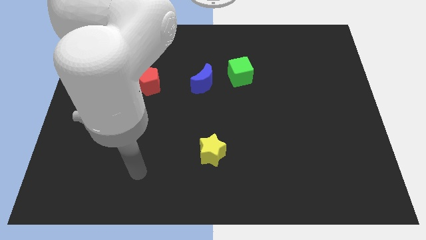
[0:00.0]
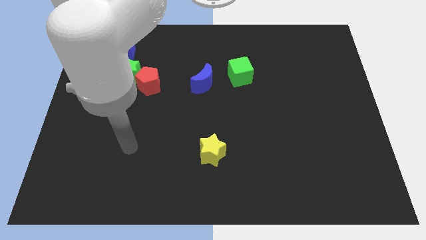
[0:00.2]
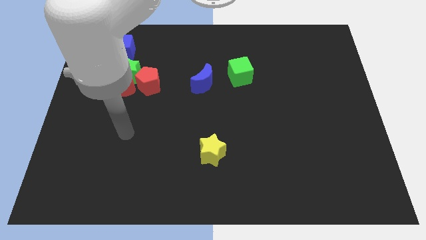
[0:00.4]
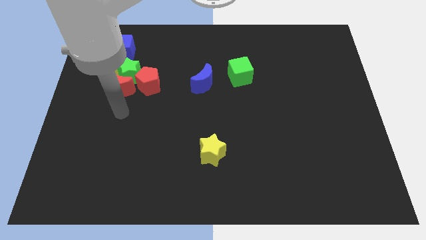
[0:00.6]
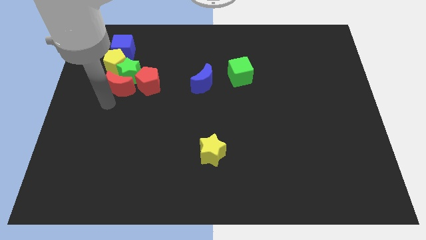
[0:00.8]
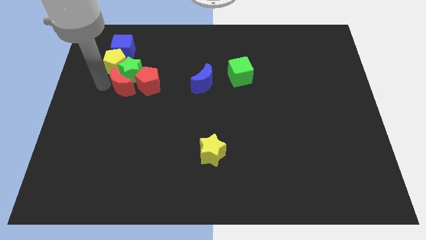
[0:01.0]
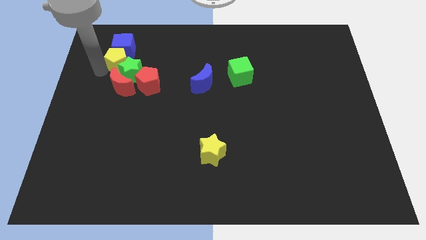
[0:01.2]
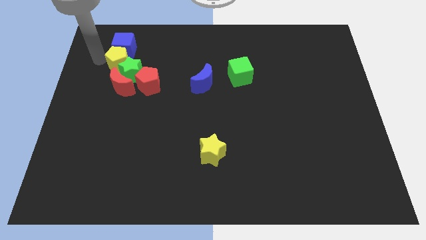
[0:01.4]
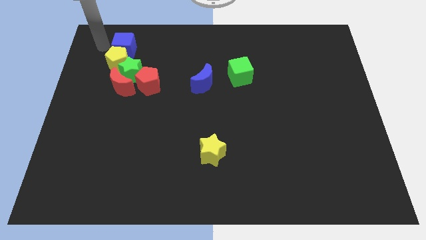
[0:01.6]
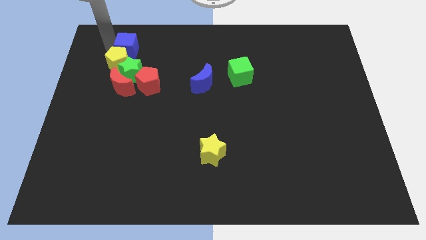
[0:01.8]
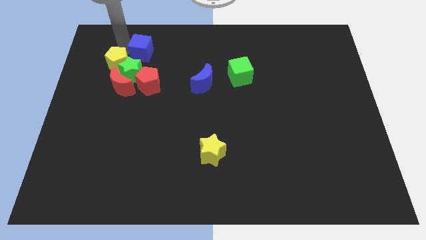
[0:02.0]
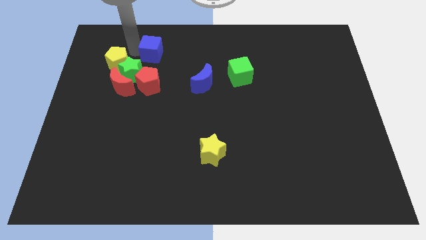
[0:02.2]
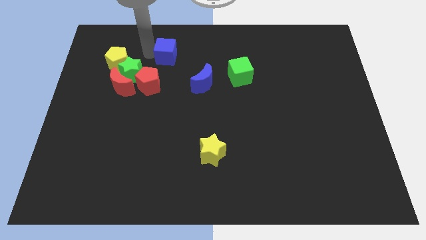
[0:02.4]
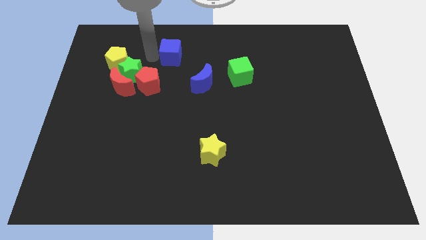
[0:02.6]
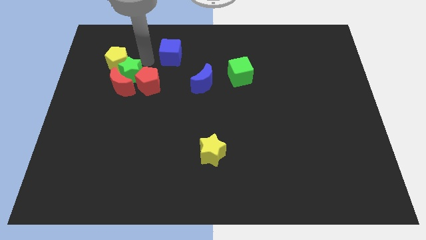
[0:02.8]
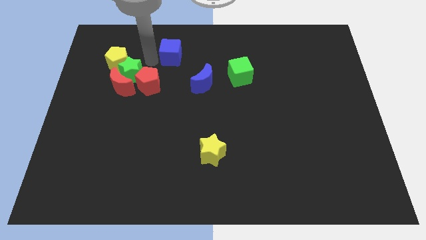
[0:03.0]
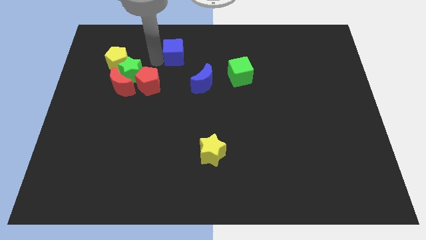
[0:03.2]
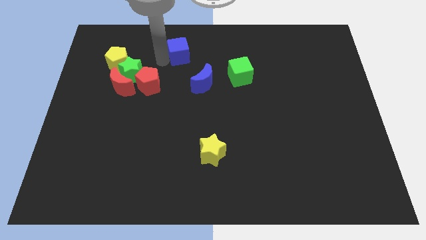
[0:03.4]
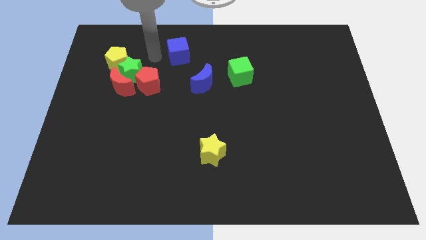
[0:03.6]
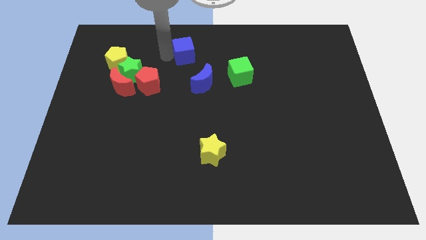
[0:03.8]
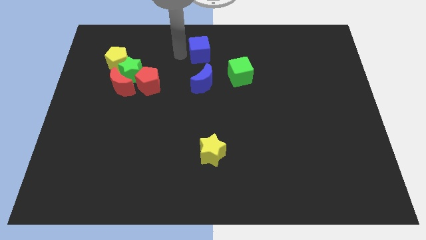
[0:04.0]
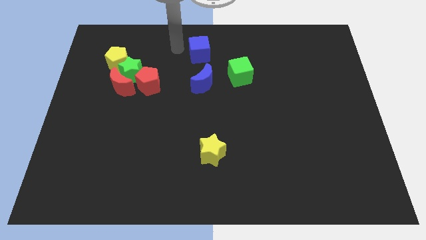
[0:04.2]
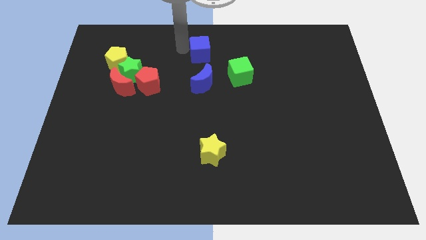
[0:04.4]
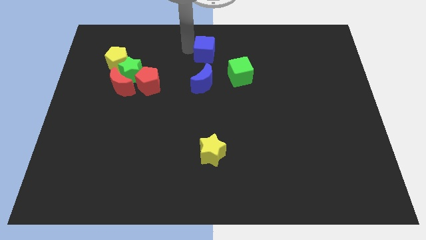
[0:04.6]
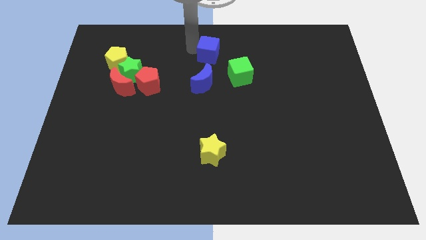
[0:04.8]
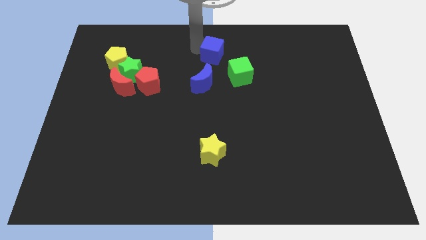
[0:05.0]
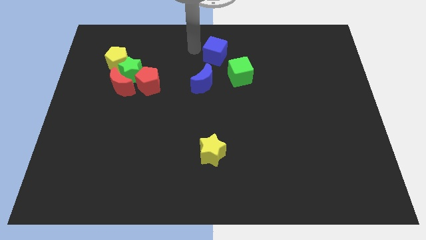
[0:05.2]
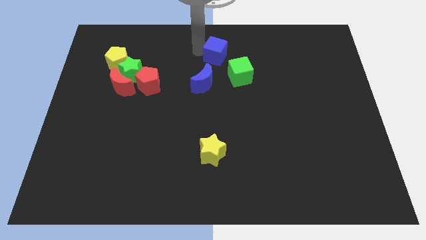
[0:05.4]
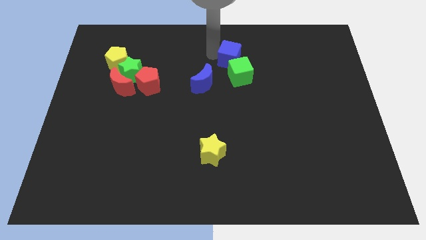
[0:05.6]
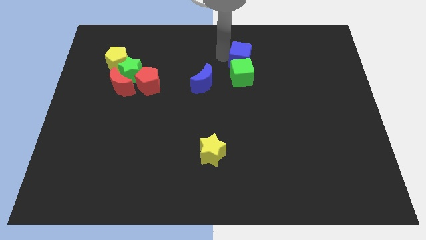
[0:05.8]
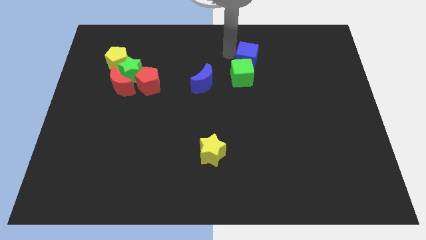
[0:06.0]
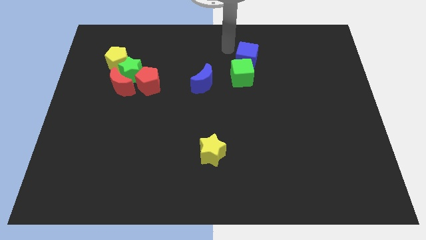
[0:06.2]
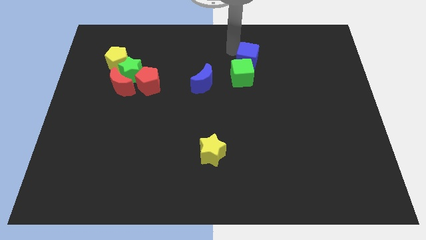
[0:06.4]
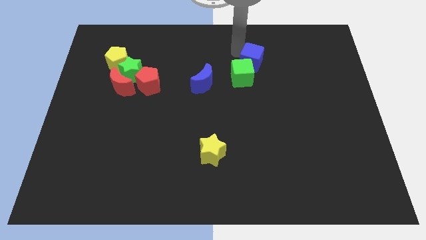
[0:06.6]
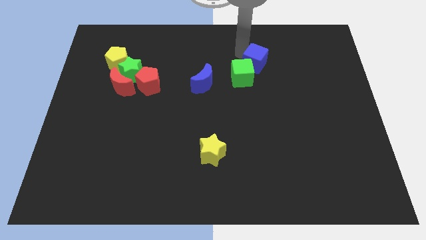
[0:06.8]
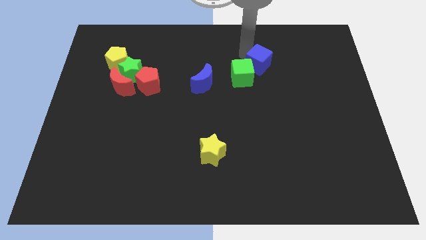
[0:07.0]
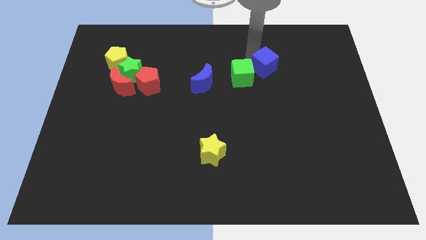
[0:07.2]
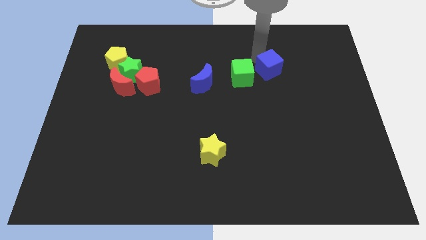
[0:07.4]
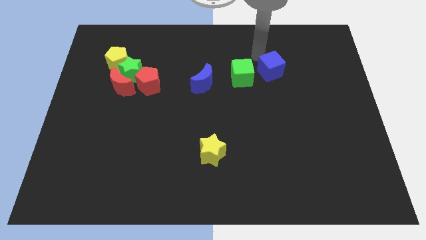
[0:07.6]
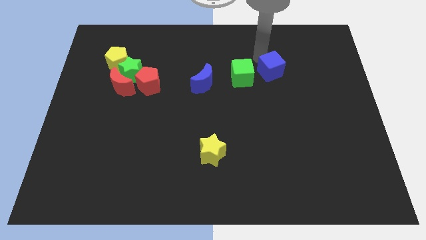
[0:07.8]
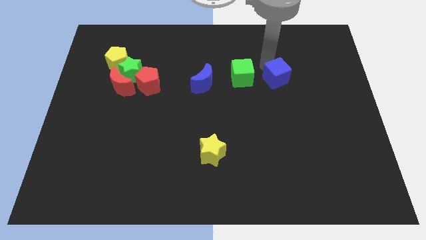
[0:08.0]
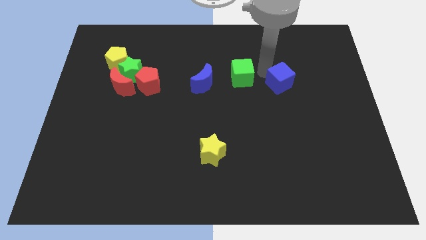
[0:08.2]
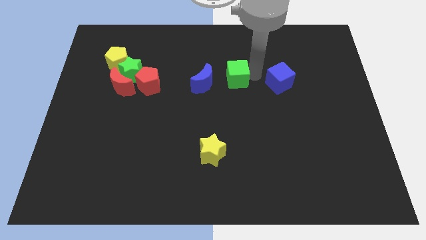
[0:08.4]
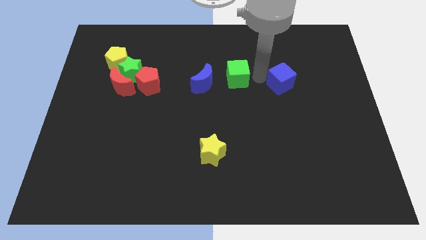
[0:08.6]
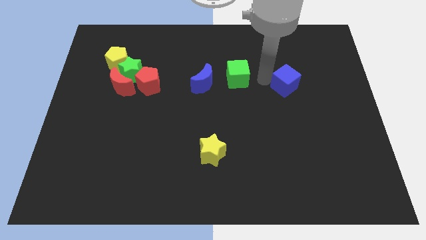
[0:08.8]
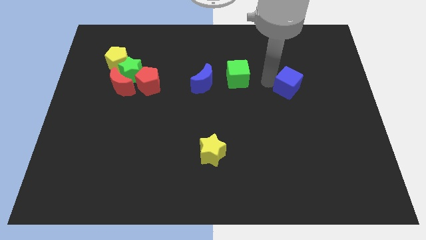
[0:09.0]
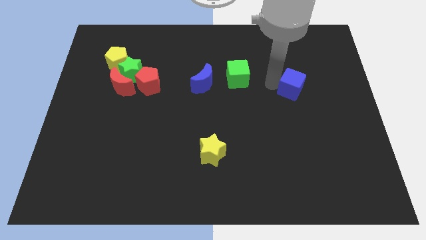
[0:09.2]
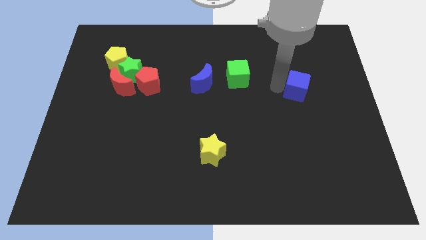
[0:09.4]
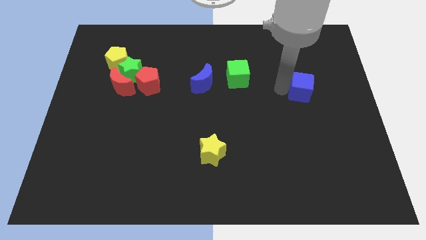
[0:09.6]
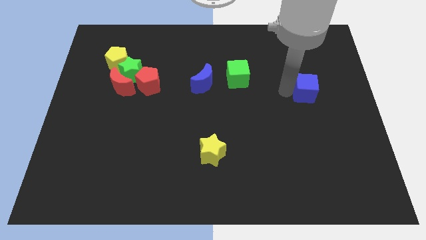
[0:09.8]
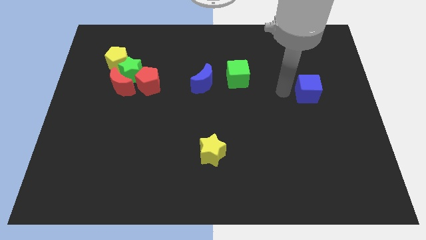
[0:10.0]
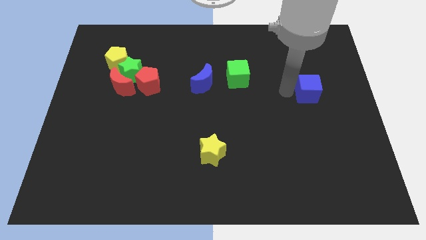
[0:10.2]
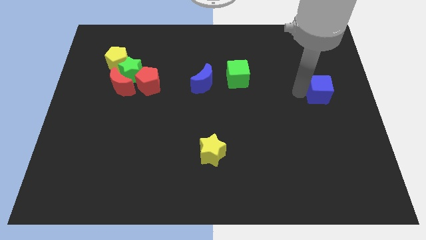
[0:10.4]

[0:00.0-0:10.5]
push the blue cube to the right side

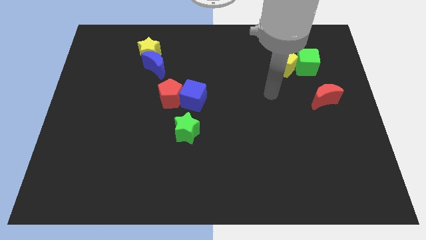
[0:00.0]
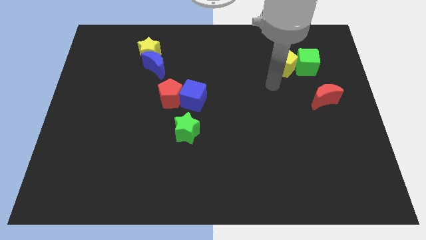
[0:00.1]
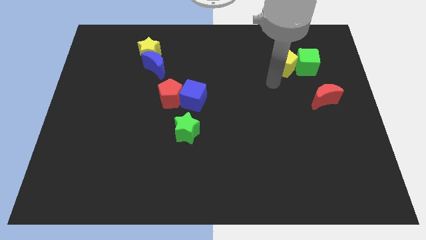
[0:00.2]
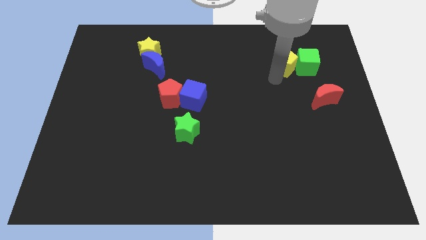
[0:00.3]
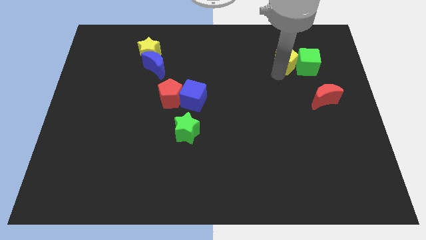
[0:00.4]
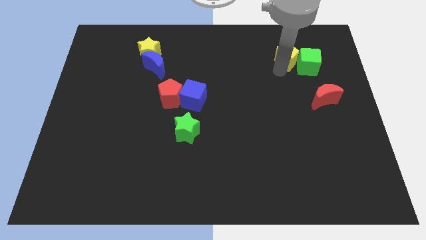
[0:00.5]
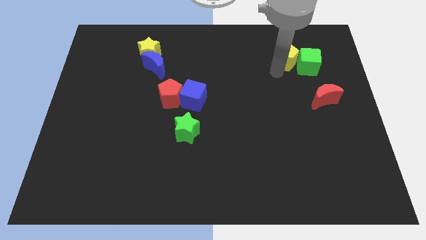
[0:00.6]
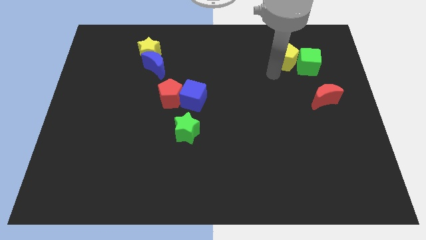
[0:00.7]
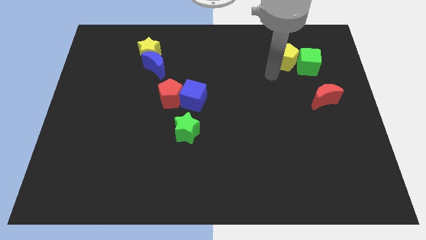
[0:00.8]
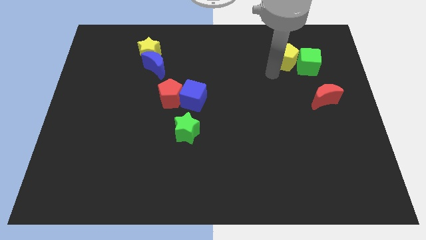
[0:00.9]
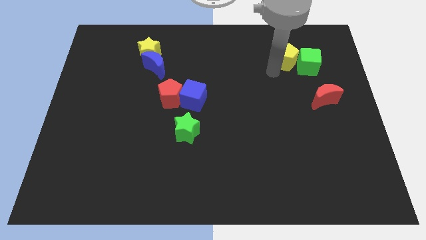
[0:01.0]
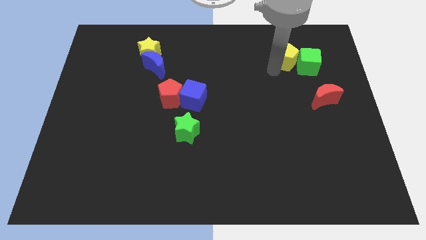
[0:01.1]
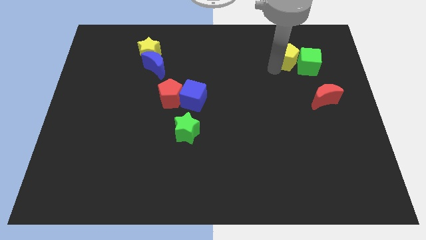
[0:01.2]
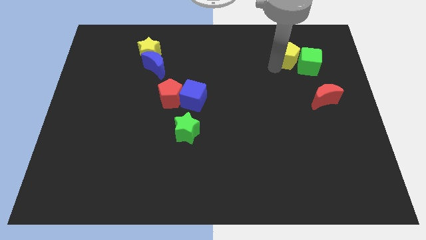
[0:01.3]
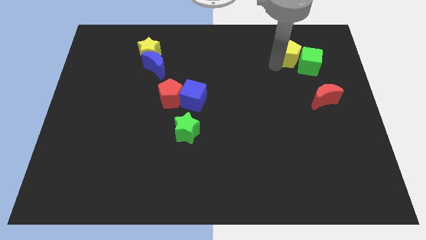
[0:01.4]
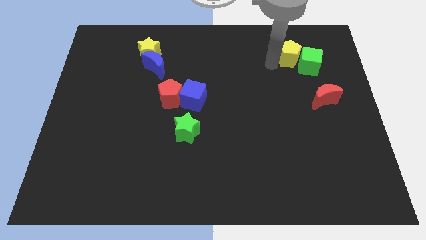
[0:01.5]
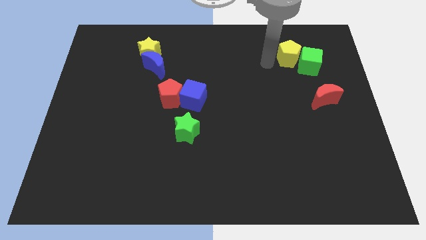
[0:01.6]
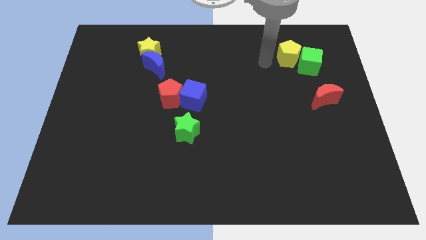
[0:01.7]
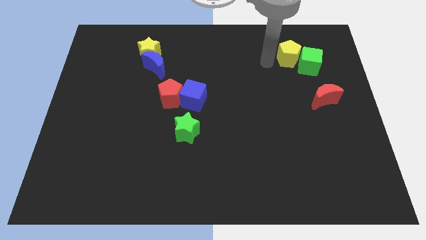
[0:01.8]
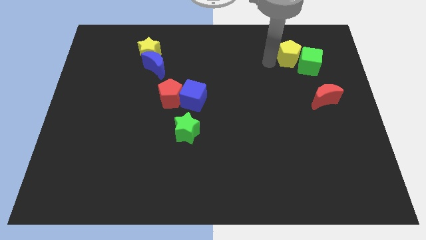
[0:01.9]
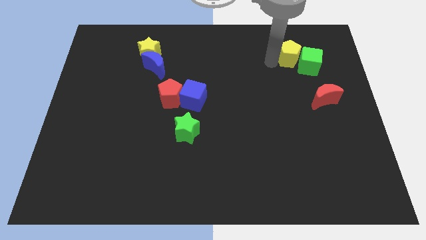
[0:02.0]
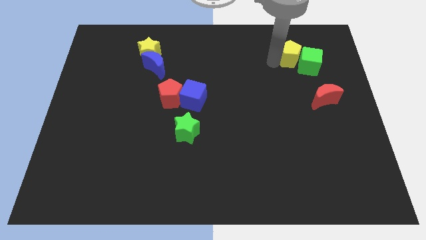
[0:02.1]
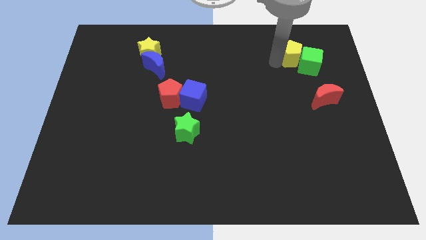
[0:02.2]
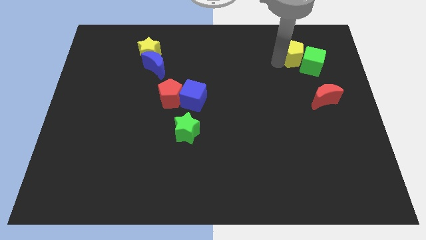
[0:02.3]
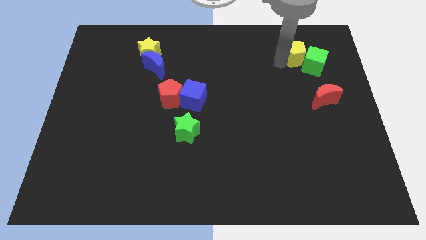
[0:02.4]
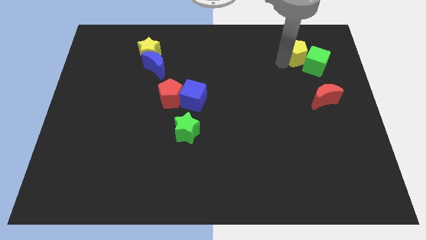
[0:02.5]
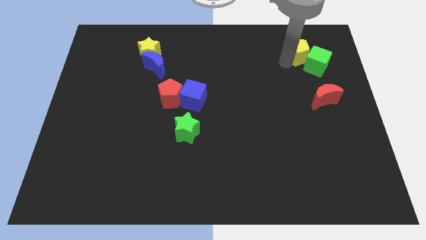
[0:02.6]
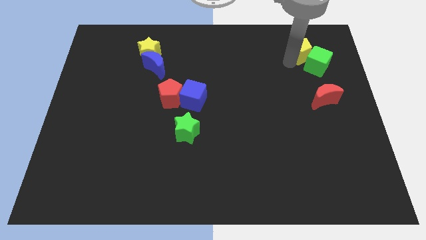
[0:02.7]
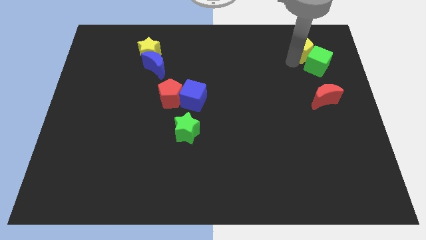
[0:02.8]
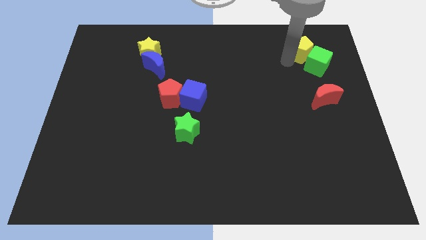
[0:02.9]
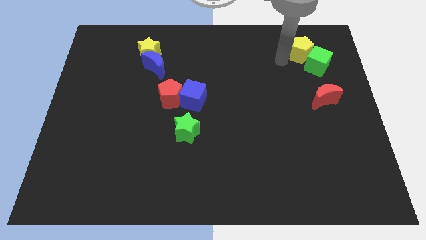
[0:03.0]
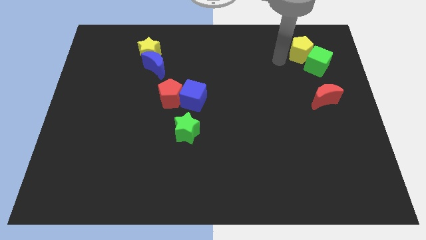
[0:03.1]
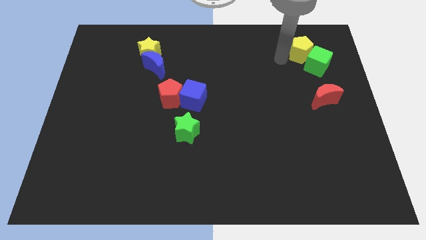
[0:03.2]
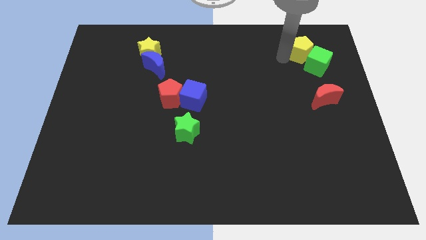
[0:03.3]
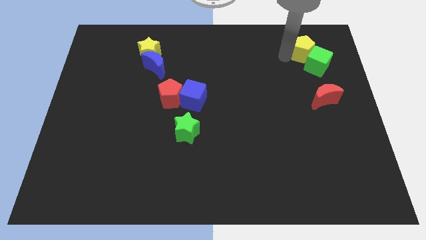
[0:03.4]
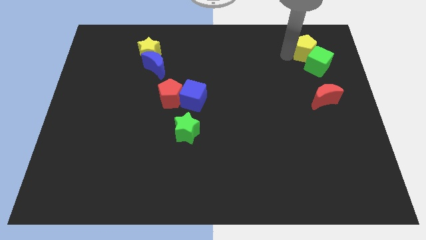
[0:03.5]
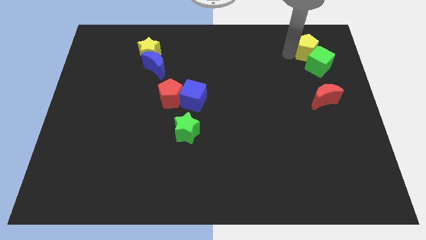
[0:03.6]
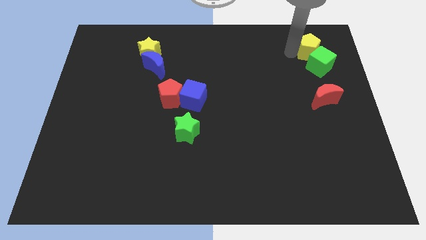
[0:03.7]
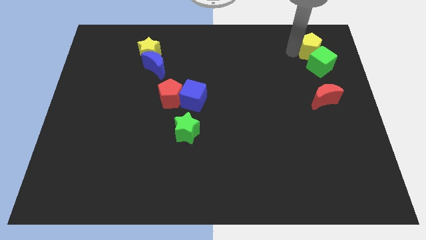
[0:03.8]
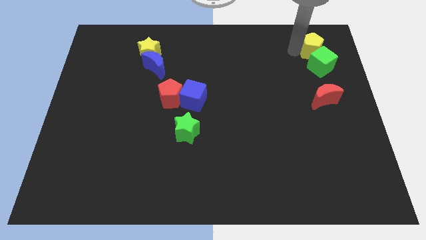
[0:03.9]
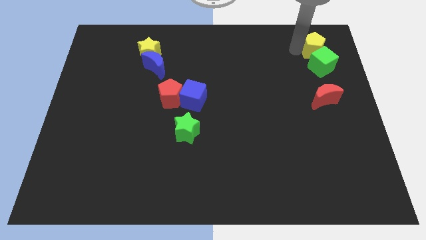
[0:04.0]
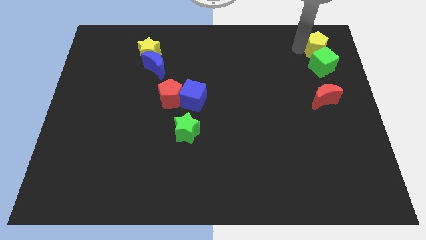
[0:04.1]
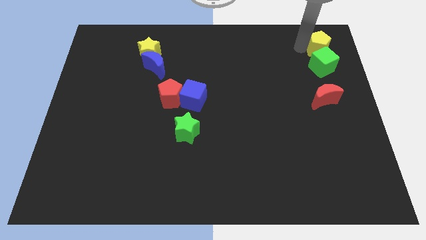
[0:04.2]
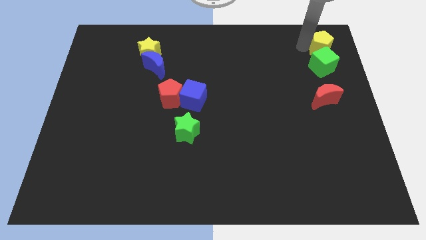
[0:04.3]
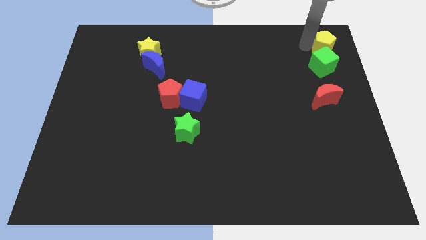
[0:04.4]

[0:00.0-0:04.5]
put the yellow pentagon to the top right
